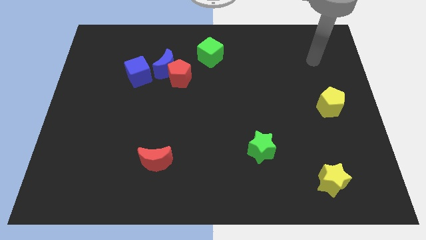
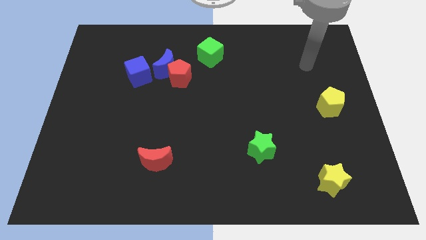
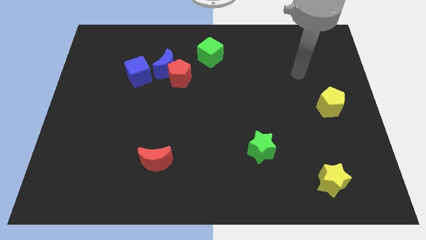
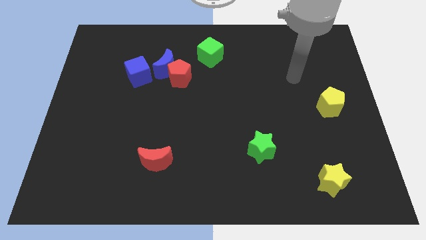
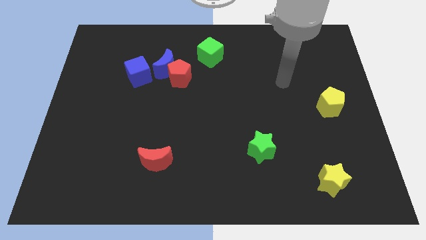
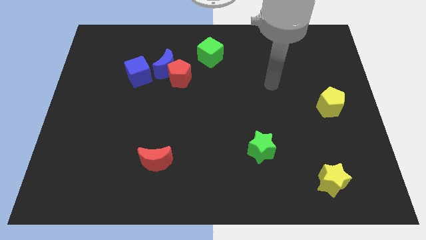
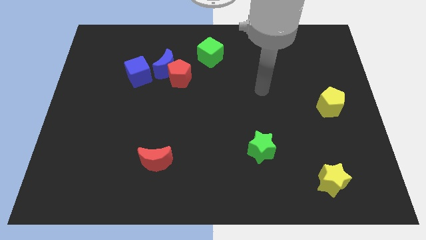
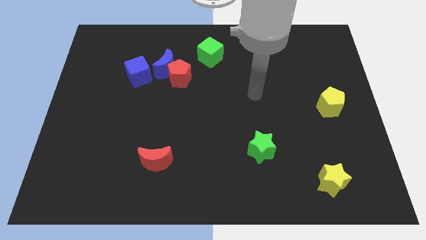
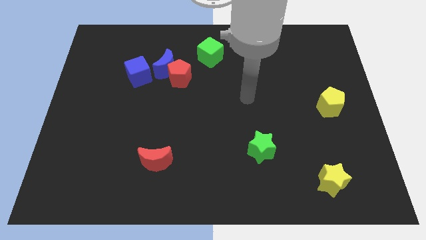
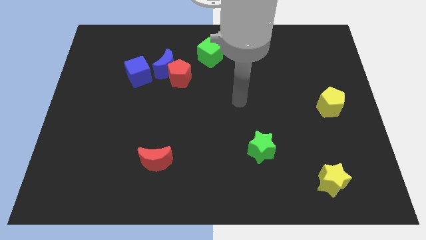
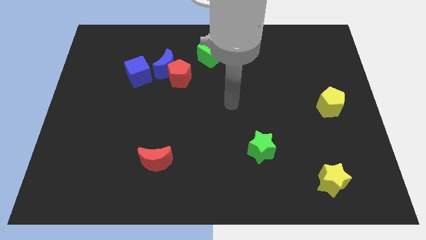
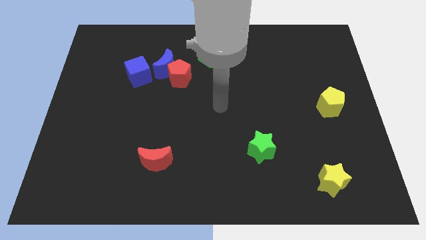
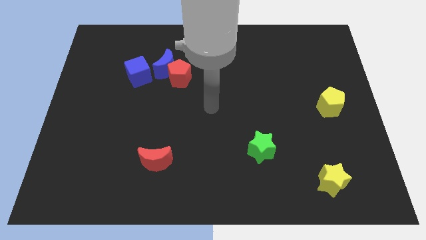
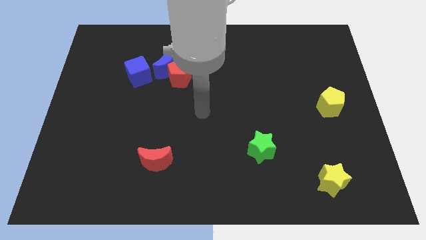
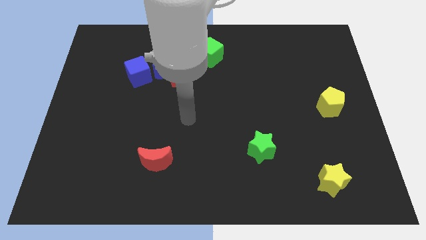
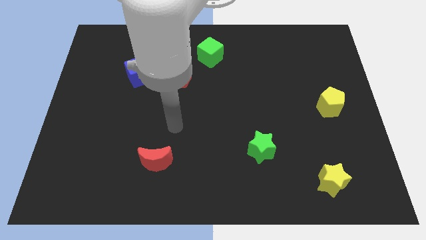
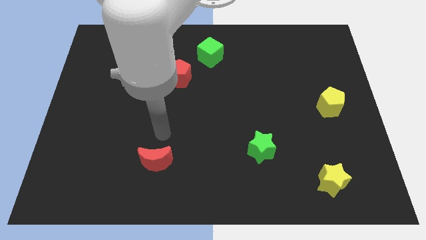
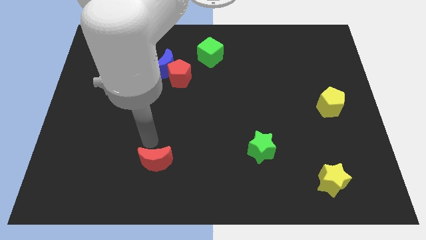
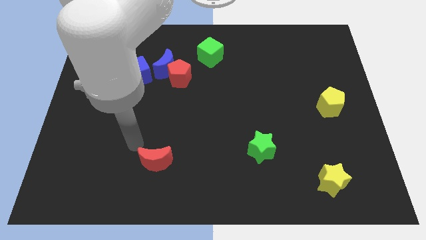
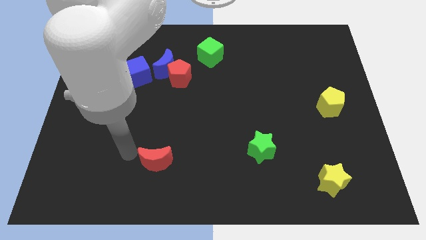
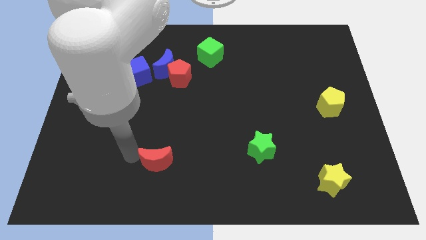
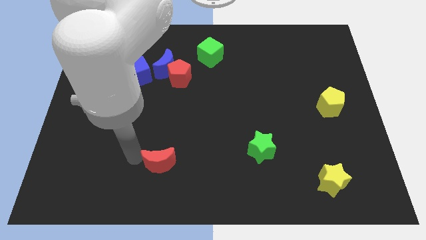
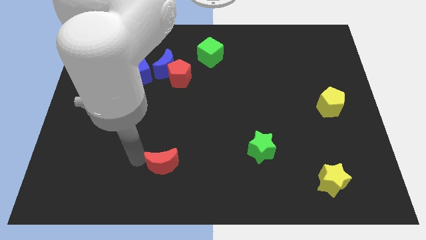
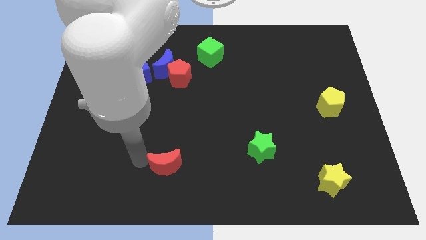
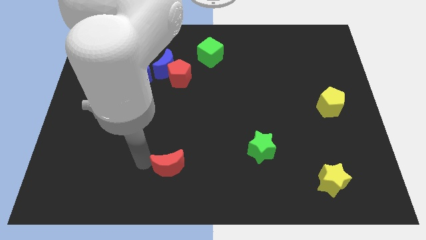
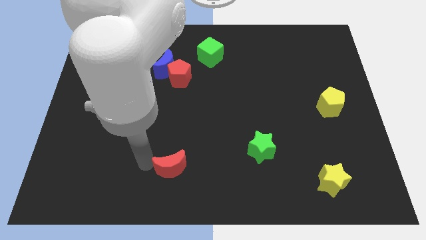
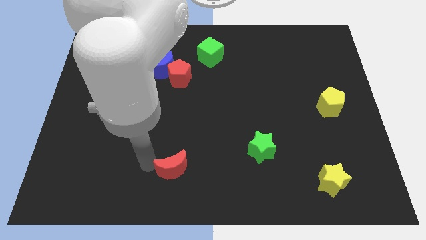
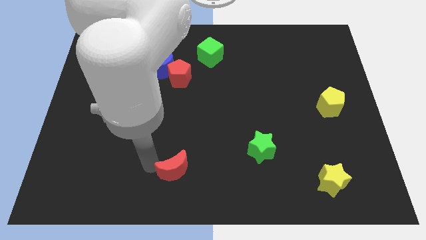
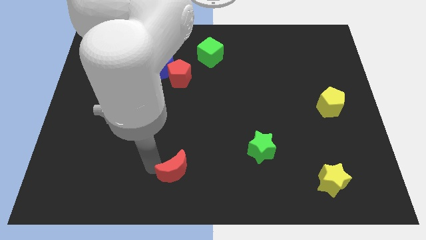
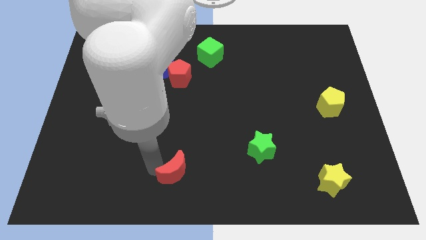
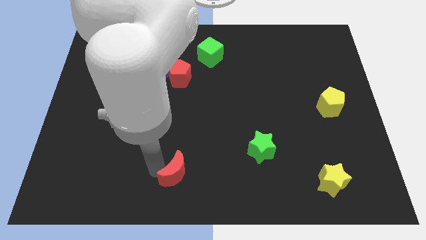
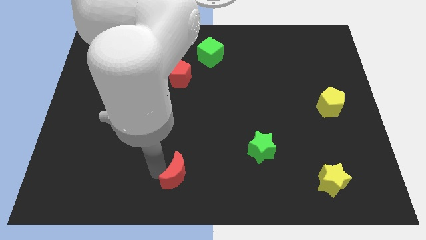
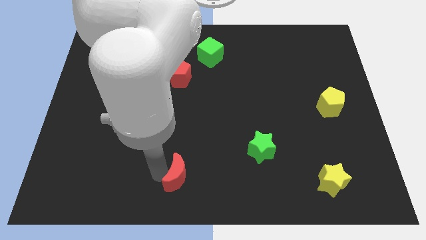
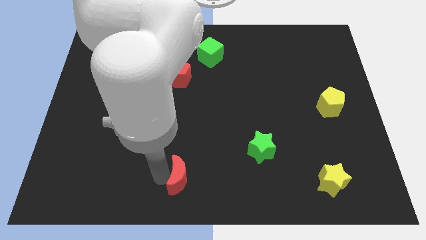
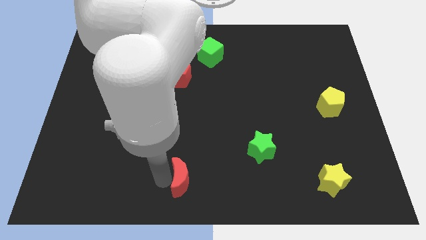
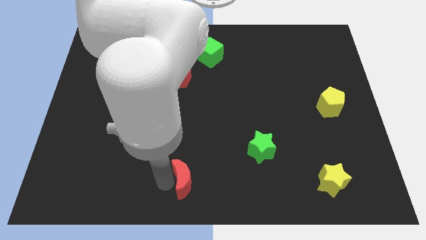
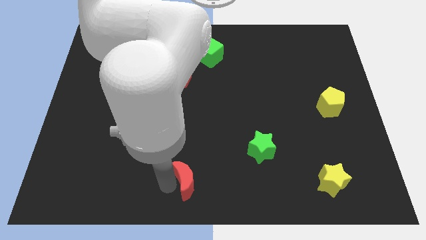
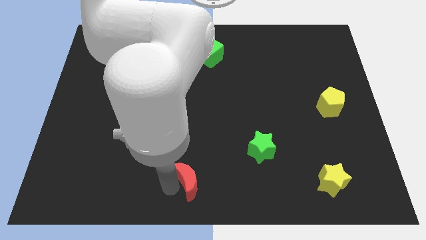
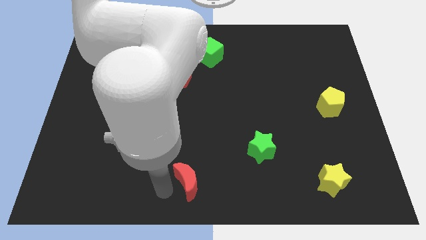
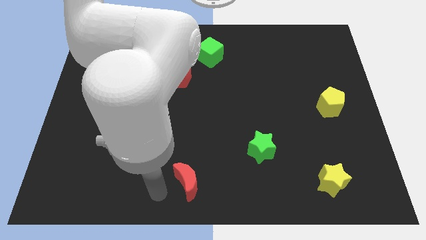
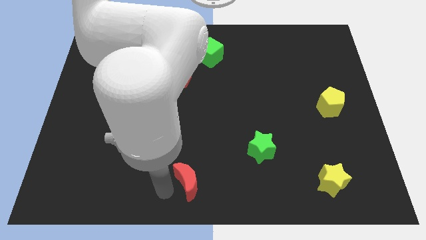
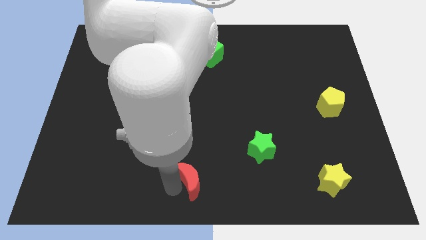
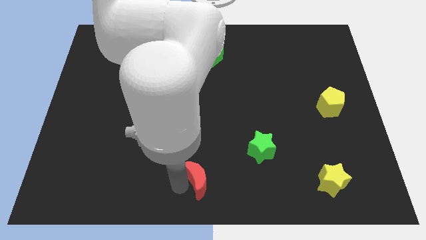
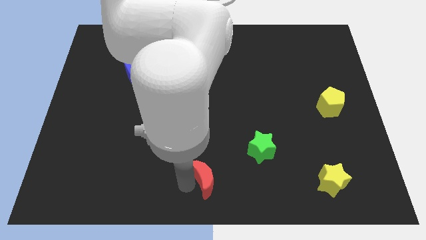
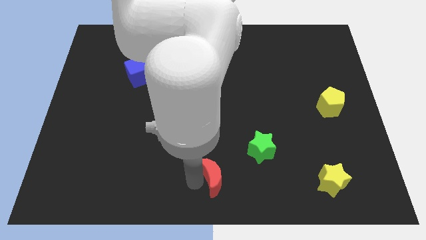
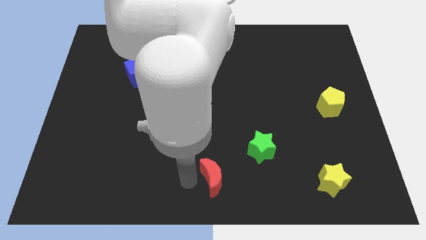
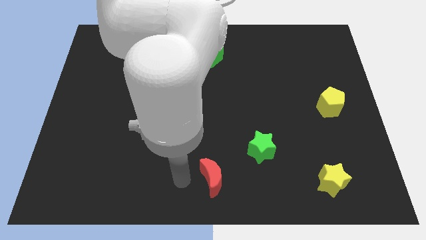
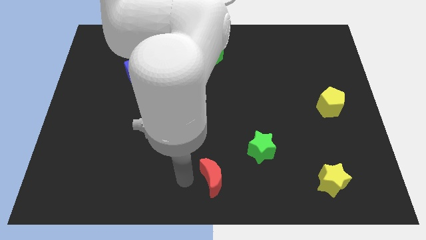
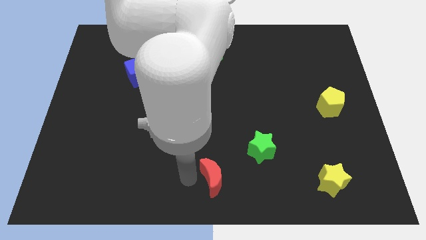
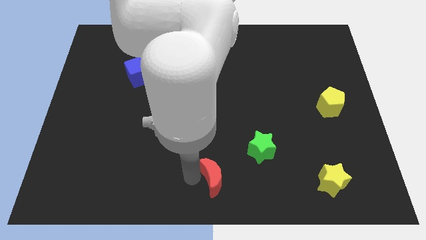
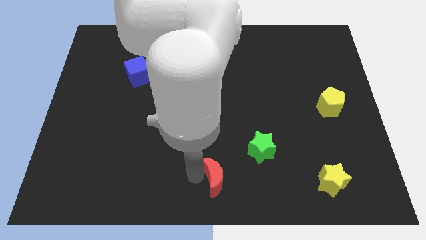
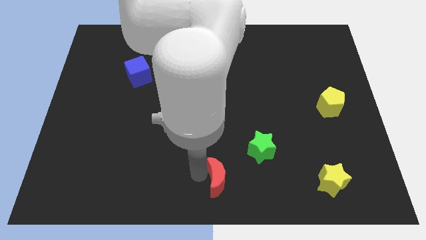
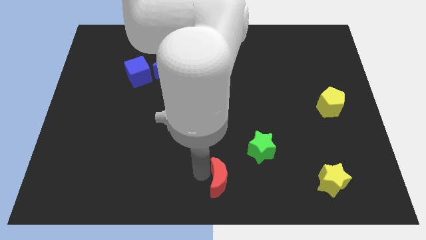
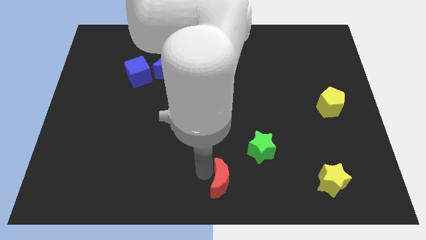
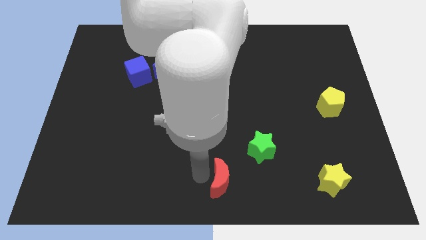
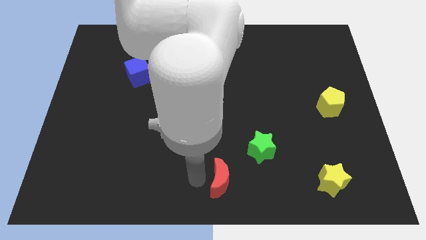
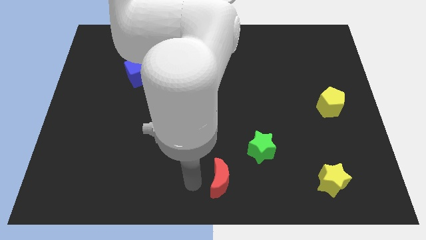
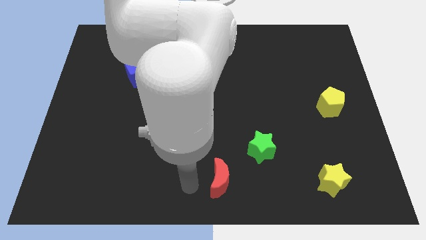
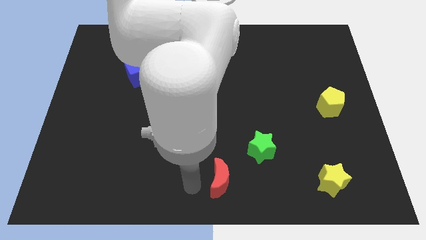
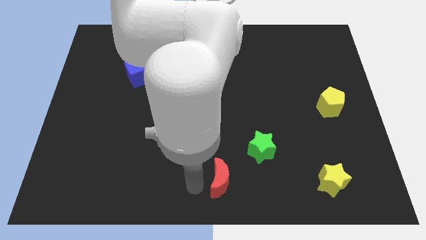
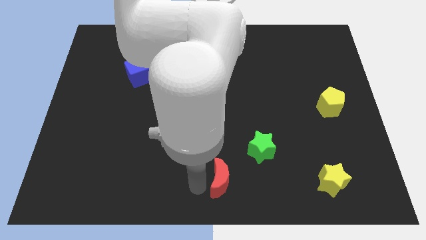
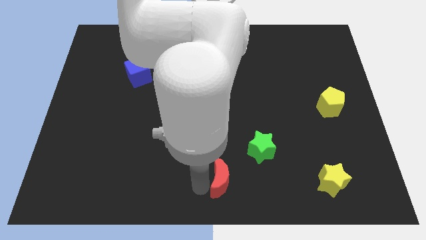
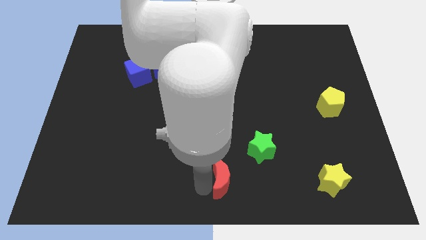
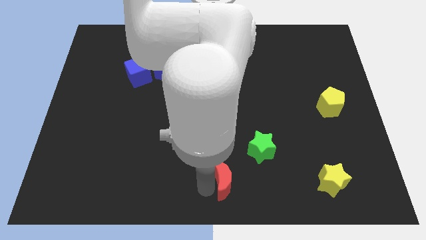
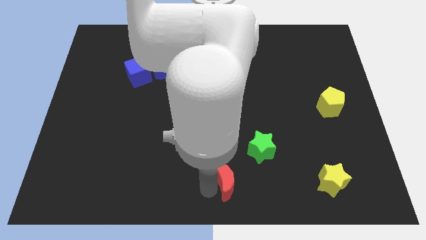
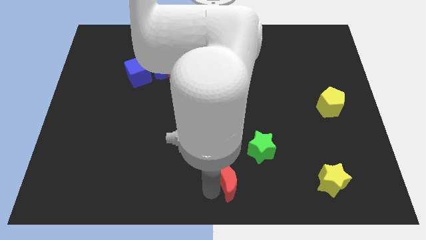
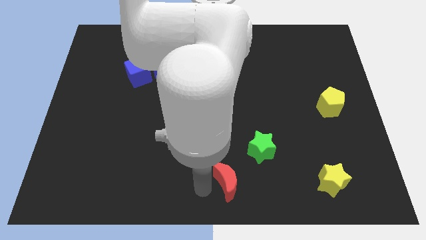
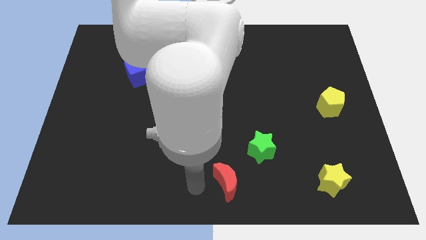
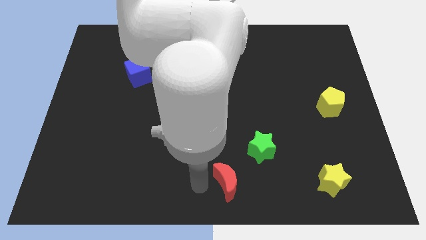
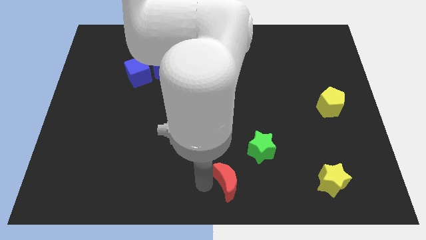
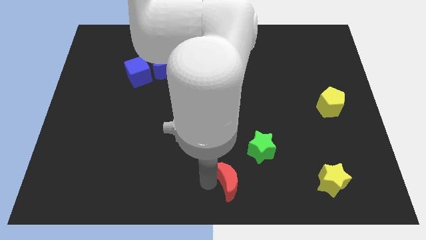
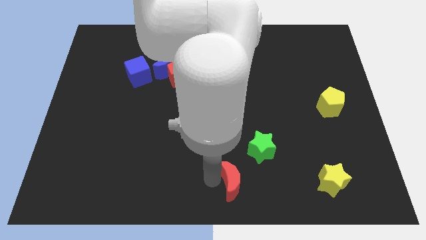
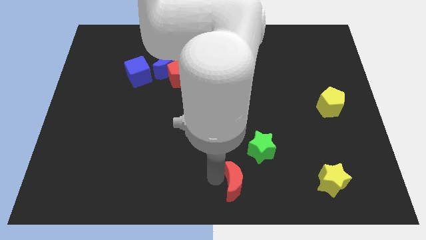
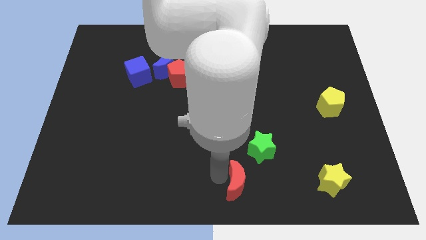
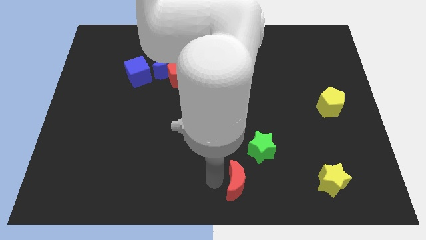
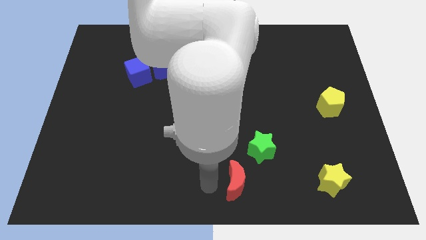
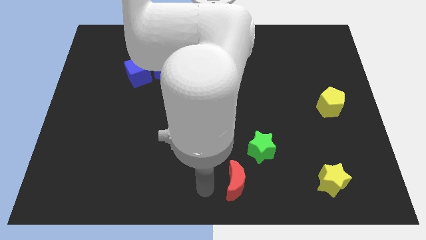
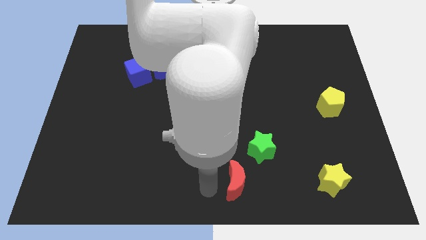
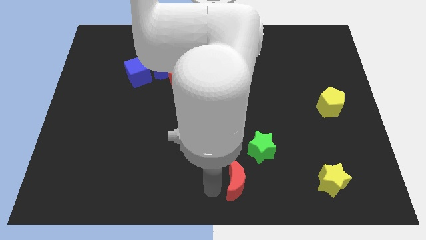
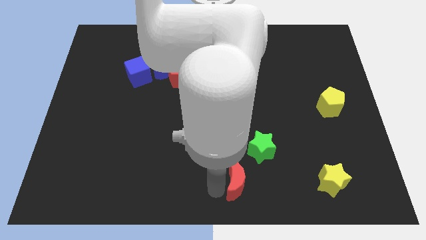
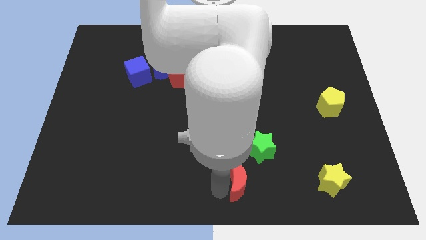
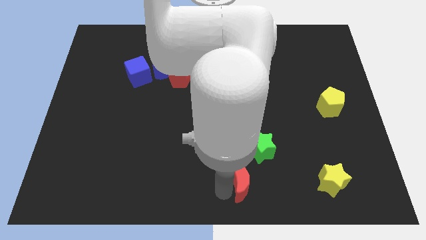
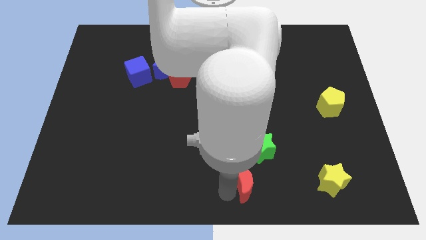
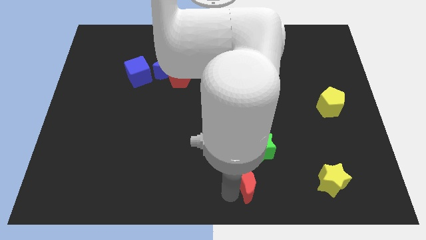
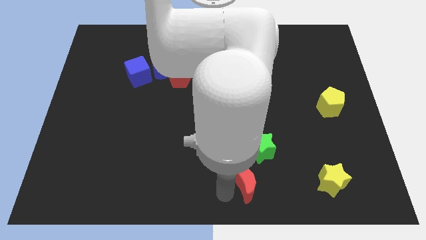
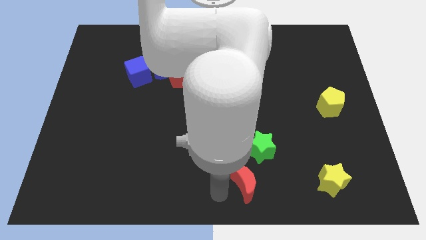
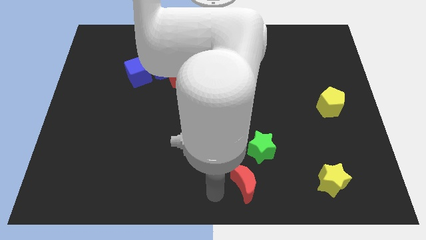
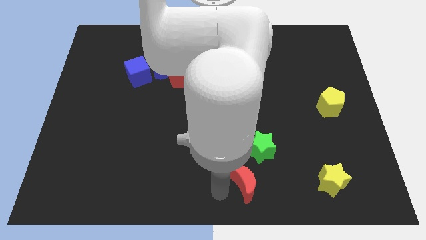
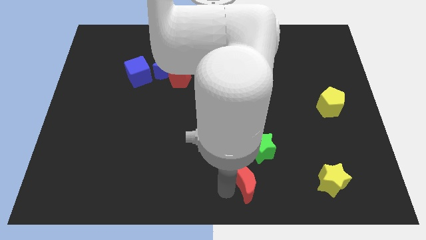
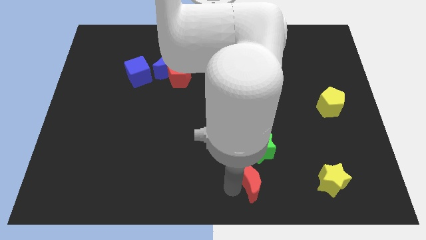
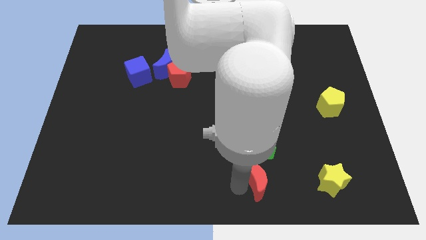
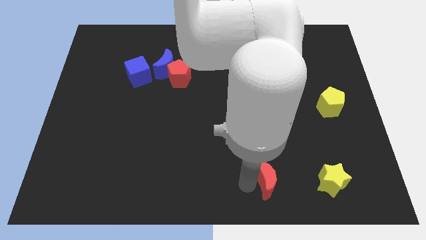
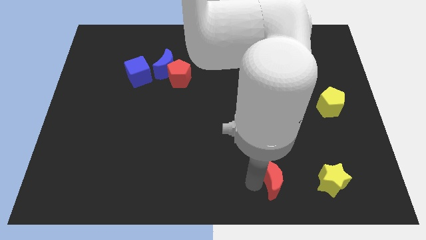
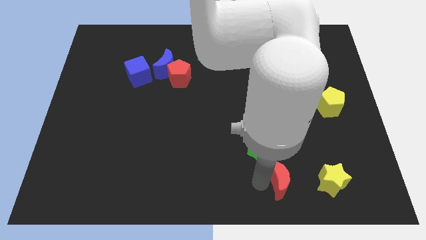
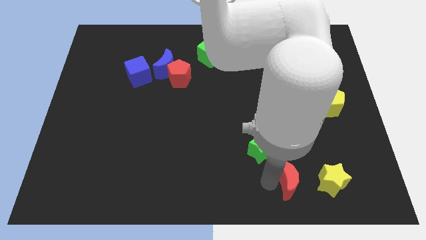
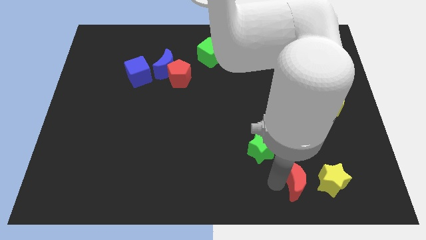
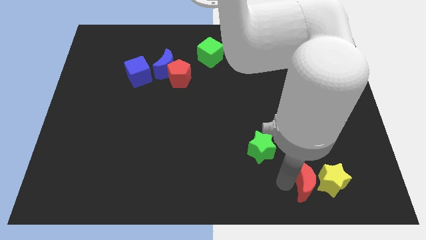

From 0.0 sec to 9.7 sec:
move the red moon towards the yellow star
